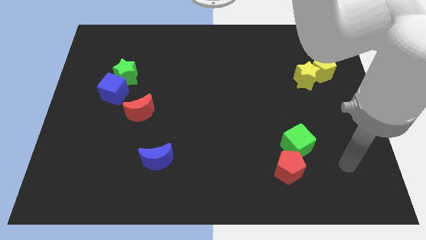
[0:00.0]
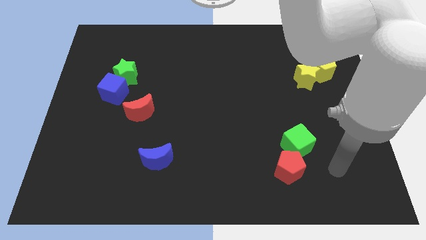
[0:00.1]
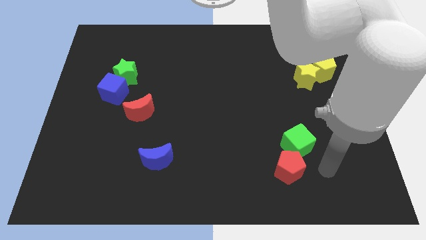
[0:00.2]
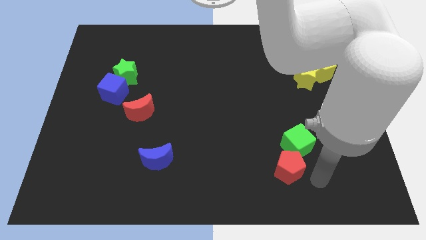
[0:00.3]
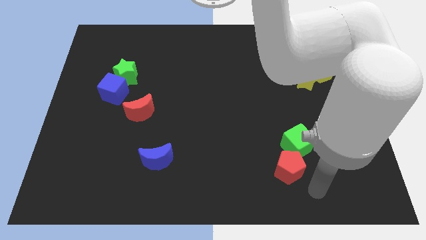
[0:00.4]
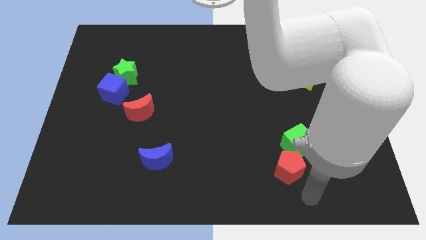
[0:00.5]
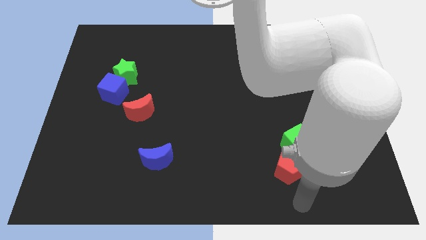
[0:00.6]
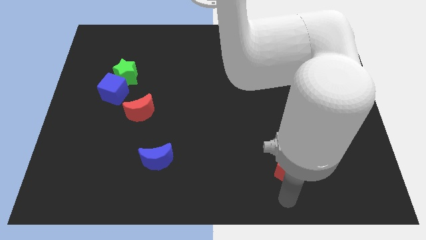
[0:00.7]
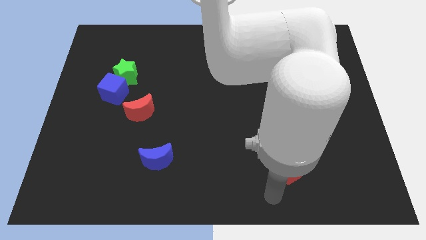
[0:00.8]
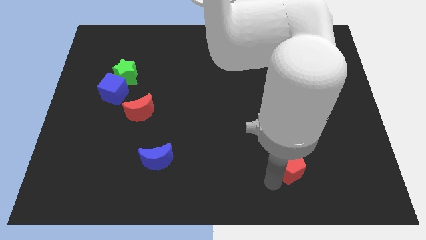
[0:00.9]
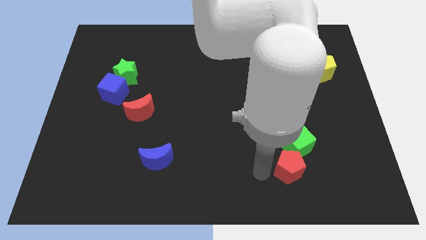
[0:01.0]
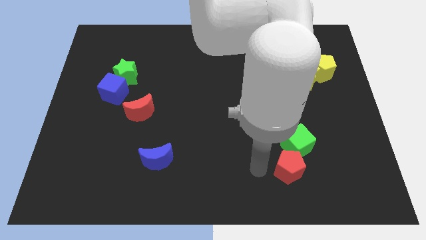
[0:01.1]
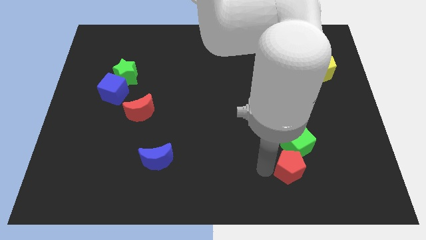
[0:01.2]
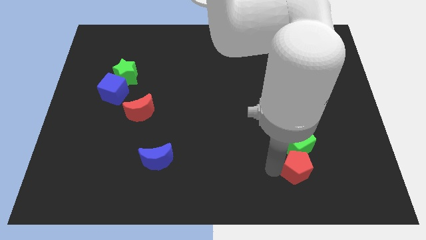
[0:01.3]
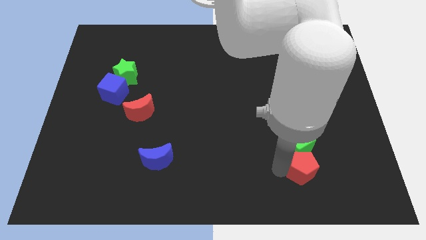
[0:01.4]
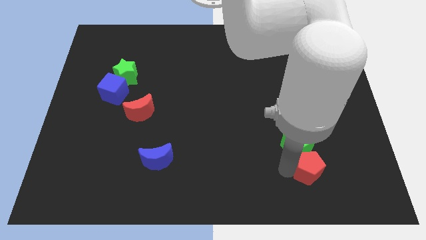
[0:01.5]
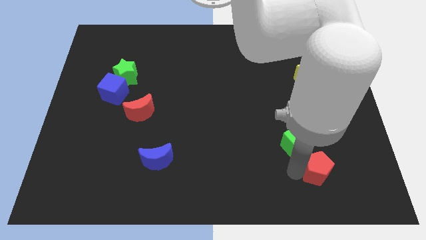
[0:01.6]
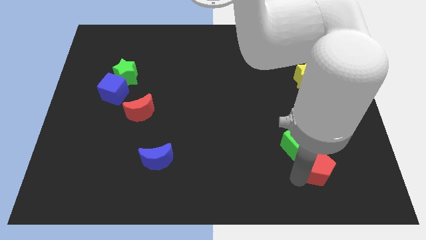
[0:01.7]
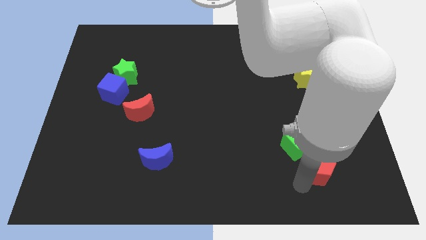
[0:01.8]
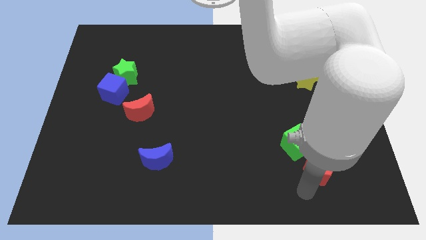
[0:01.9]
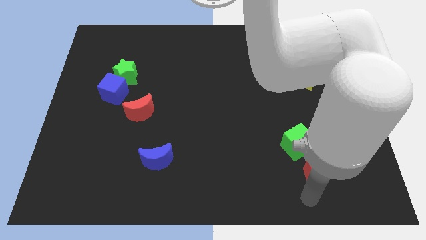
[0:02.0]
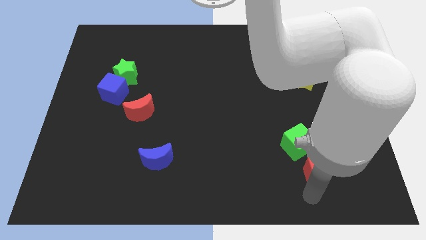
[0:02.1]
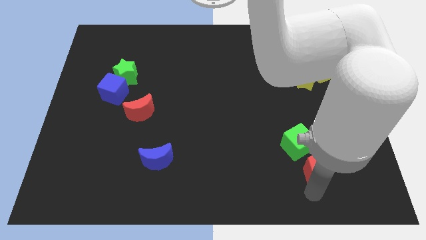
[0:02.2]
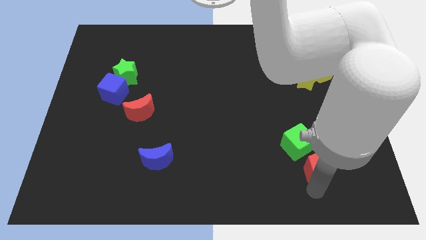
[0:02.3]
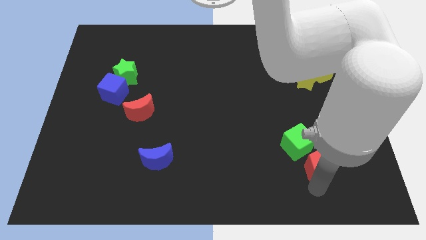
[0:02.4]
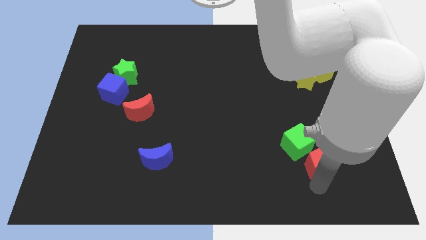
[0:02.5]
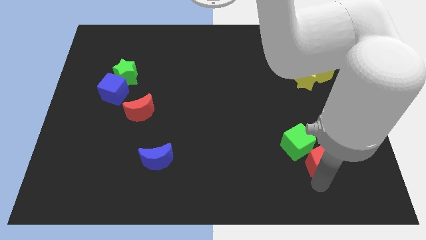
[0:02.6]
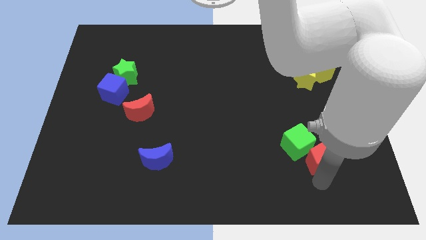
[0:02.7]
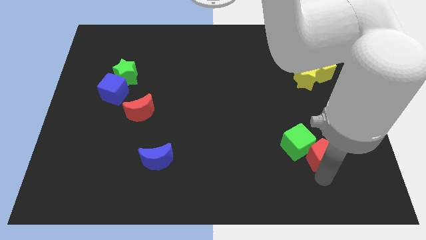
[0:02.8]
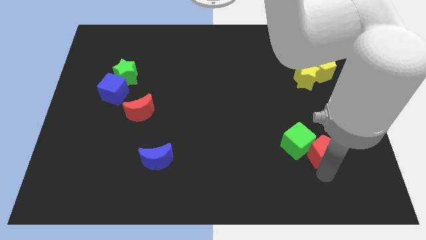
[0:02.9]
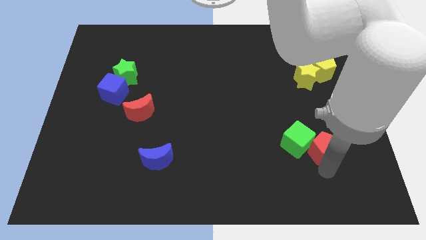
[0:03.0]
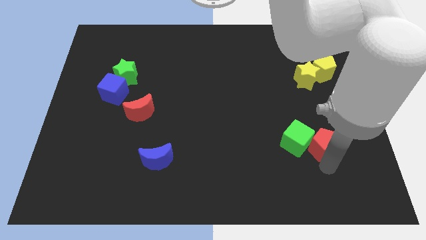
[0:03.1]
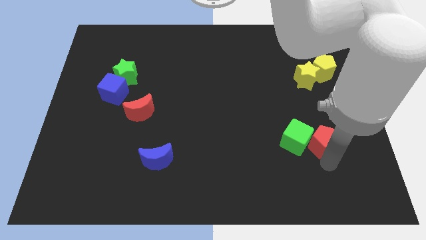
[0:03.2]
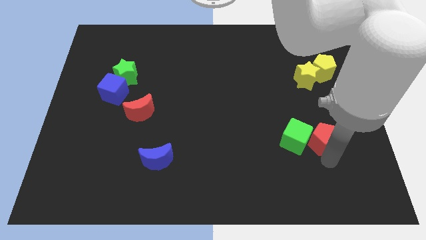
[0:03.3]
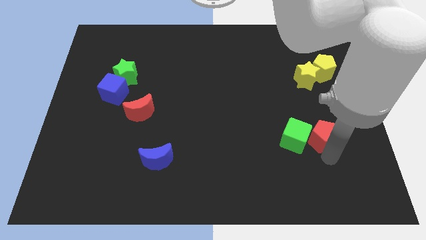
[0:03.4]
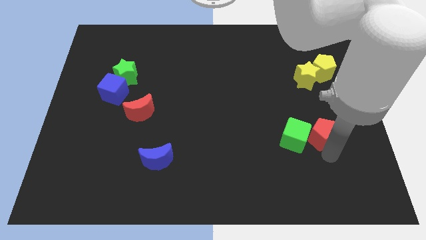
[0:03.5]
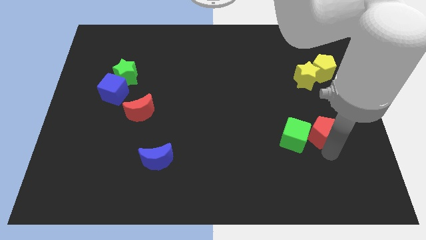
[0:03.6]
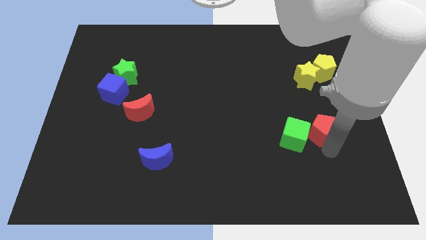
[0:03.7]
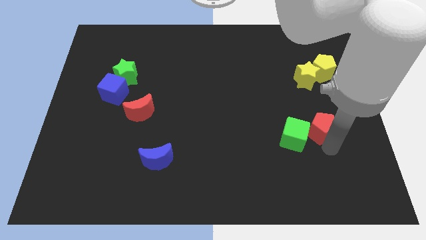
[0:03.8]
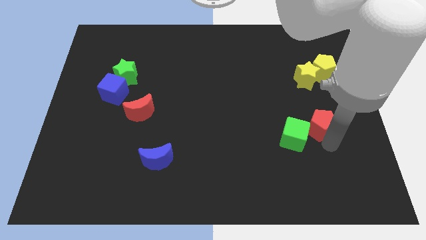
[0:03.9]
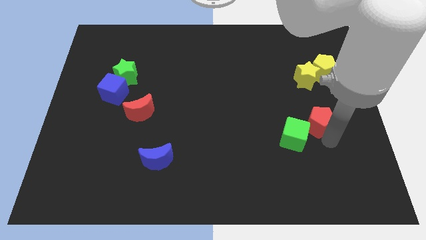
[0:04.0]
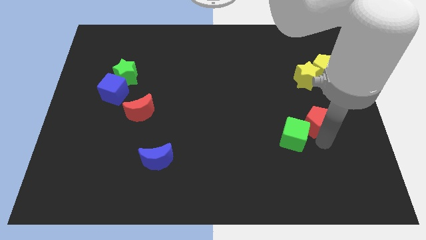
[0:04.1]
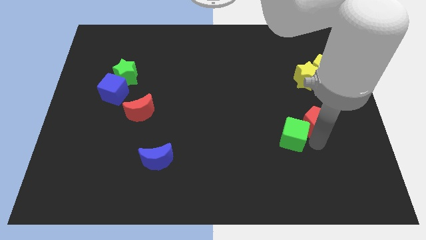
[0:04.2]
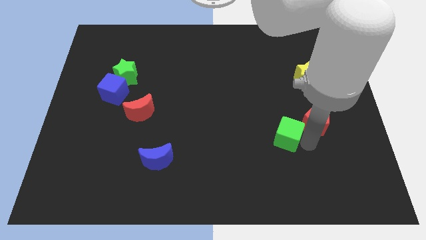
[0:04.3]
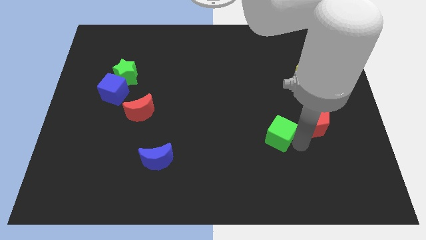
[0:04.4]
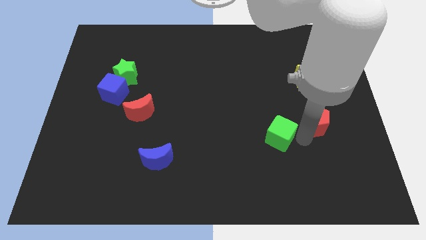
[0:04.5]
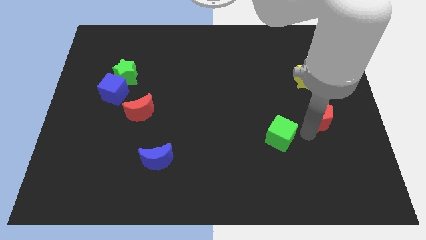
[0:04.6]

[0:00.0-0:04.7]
slide the red pentagon to the bottom side of the yellow pentagon

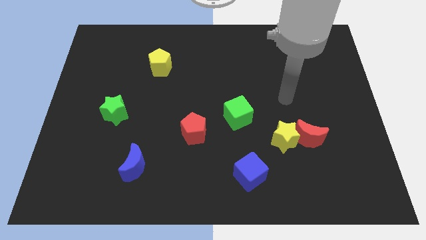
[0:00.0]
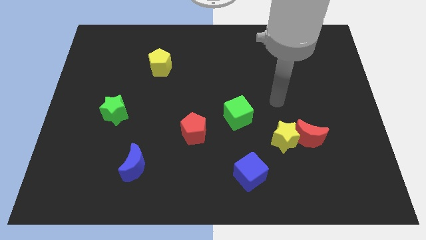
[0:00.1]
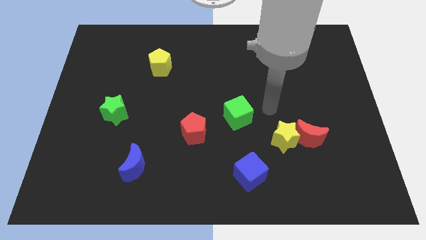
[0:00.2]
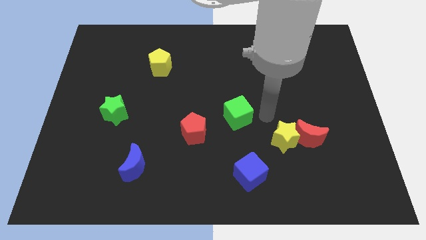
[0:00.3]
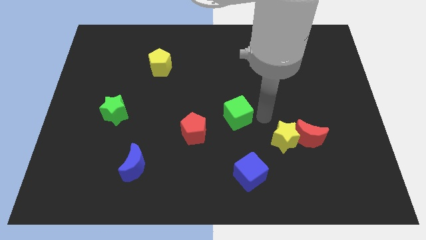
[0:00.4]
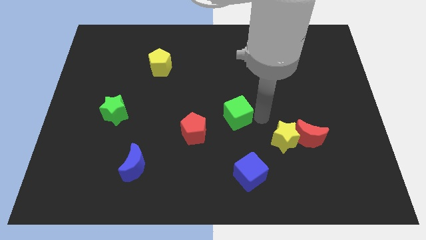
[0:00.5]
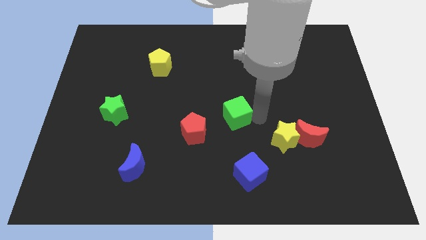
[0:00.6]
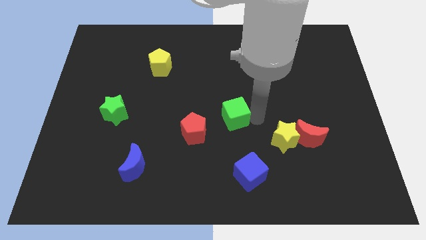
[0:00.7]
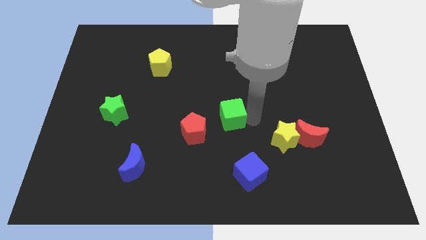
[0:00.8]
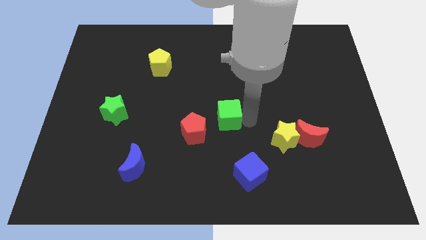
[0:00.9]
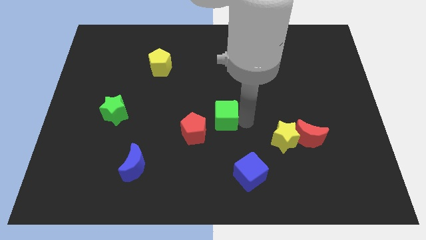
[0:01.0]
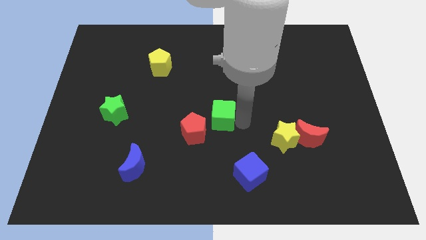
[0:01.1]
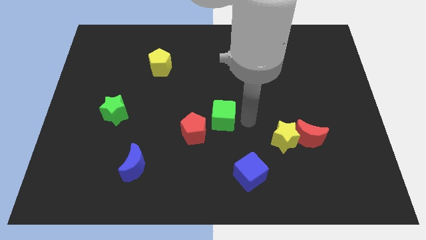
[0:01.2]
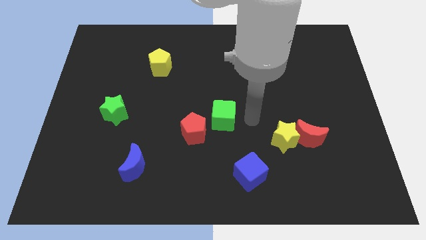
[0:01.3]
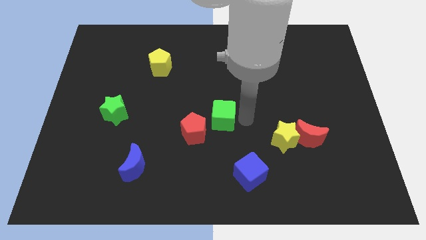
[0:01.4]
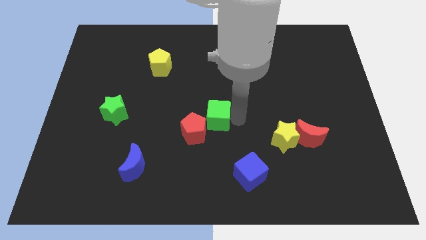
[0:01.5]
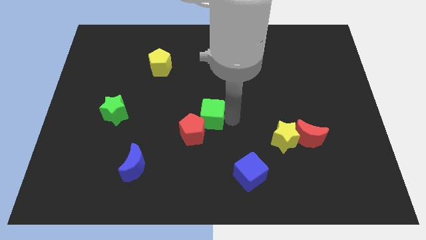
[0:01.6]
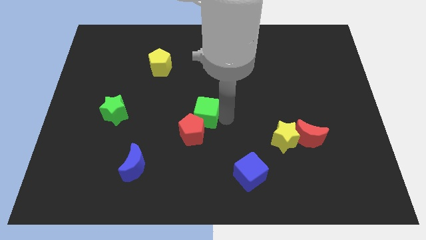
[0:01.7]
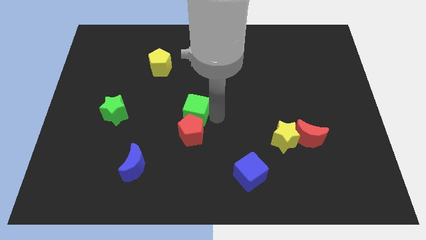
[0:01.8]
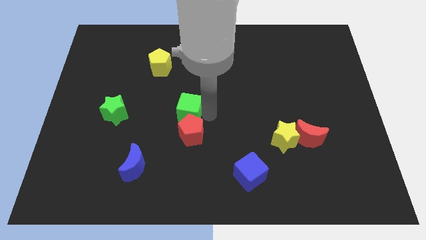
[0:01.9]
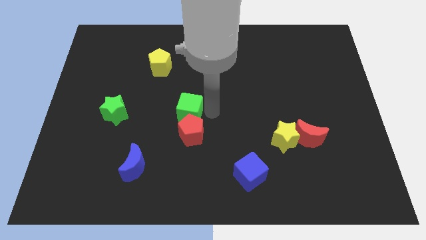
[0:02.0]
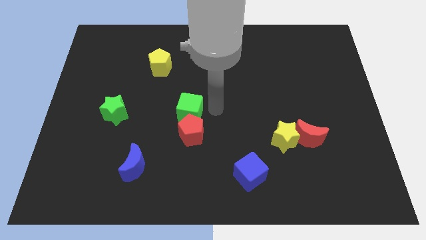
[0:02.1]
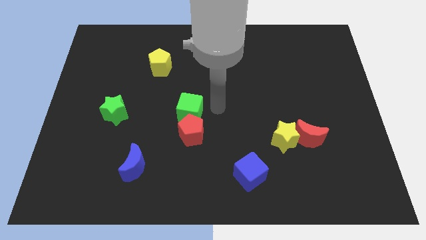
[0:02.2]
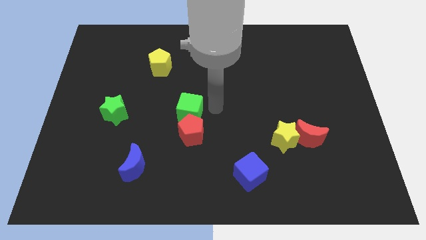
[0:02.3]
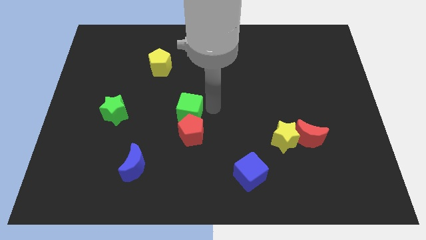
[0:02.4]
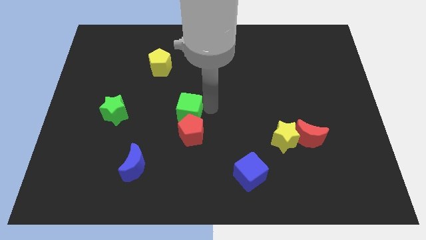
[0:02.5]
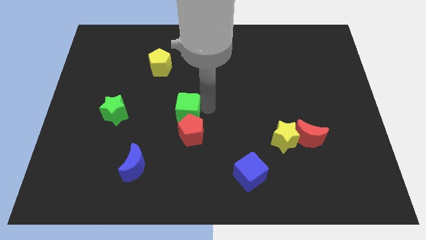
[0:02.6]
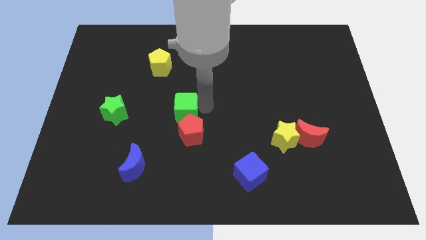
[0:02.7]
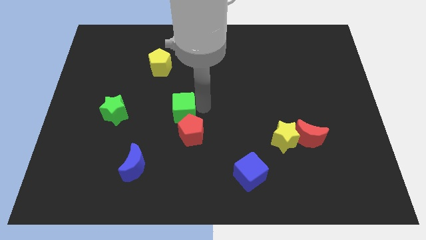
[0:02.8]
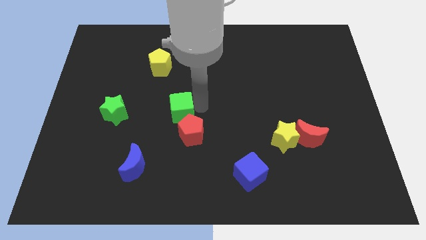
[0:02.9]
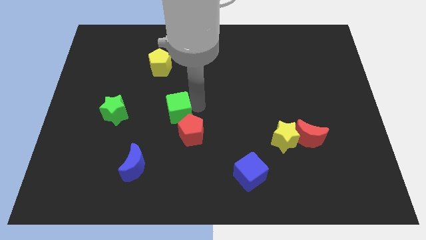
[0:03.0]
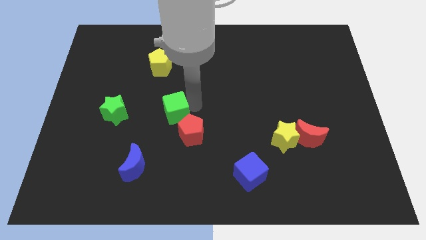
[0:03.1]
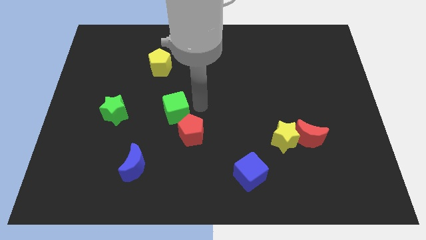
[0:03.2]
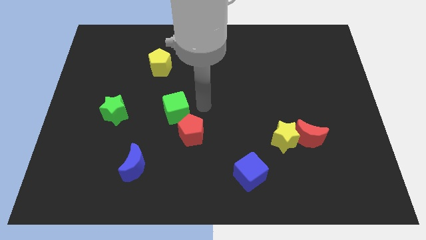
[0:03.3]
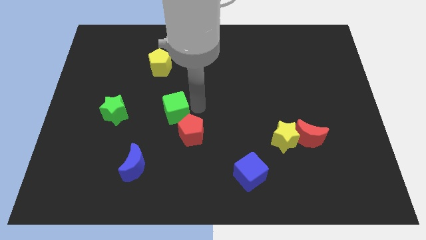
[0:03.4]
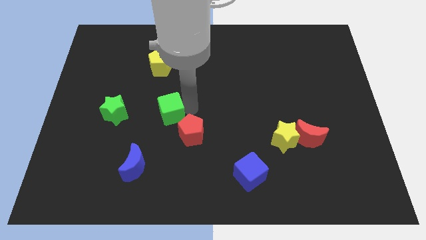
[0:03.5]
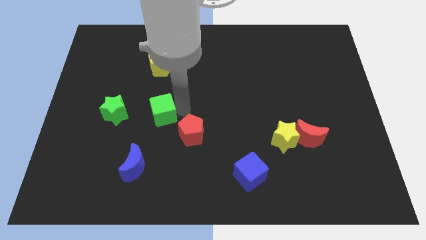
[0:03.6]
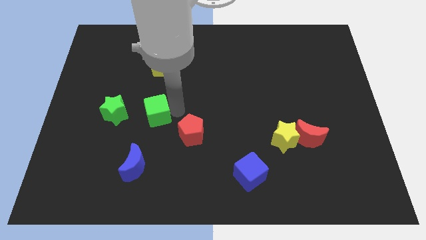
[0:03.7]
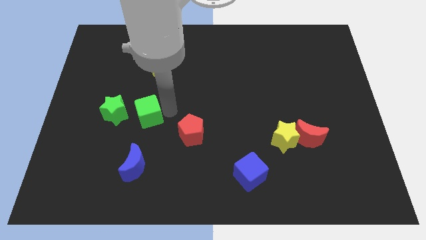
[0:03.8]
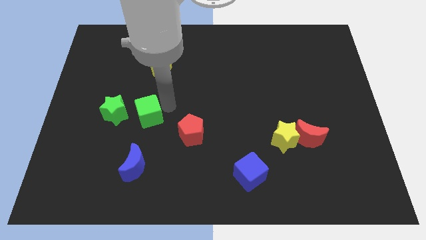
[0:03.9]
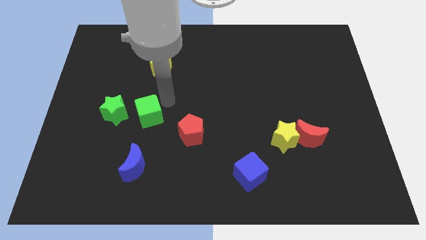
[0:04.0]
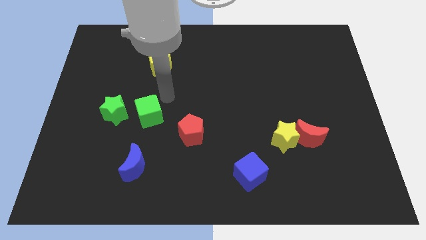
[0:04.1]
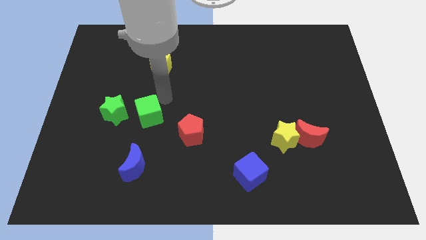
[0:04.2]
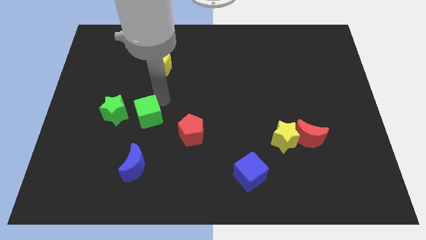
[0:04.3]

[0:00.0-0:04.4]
move the green cube diagonally down and to the right of the green star
